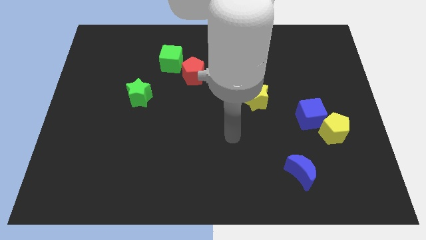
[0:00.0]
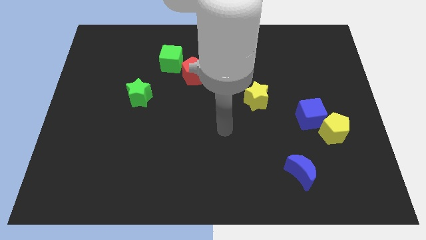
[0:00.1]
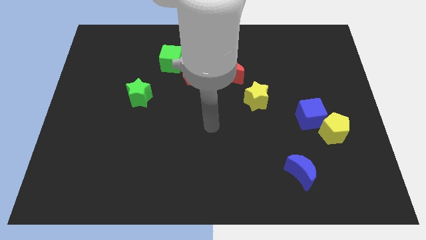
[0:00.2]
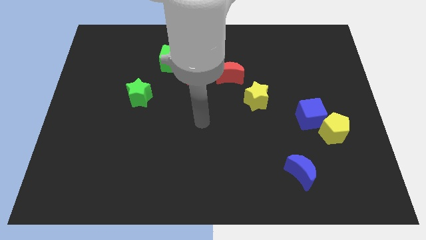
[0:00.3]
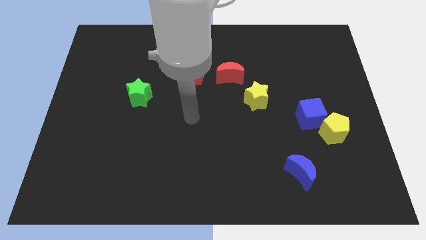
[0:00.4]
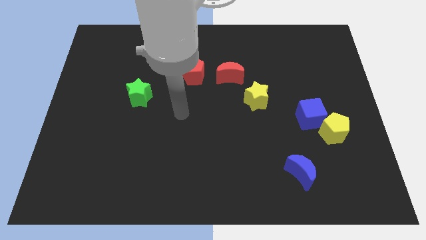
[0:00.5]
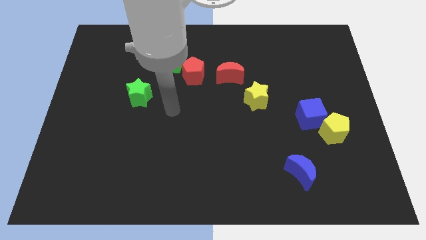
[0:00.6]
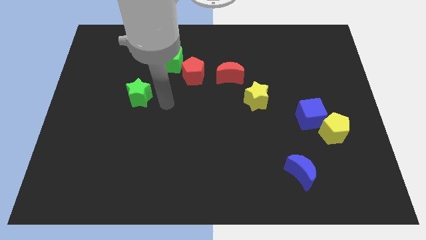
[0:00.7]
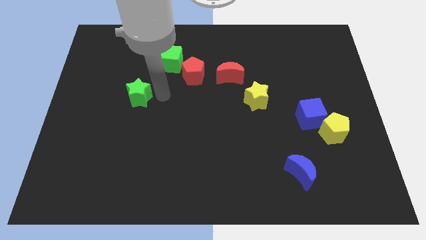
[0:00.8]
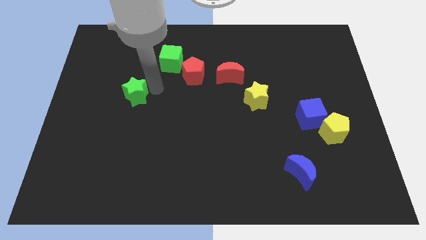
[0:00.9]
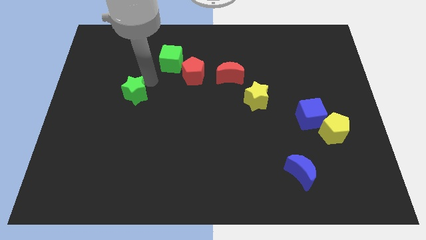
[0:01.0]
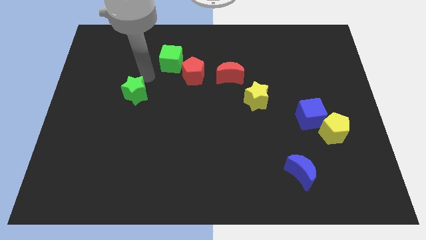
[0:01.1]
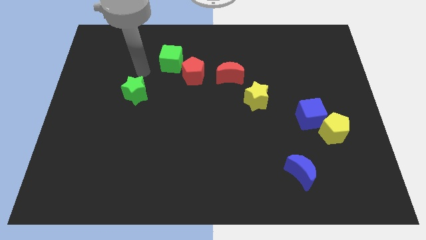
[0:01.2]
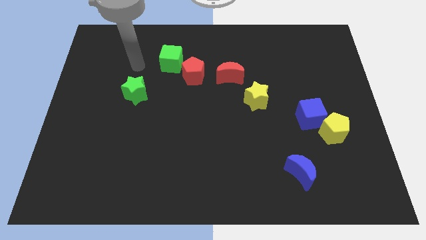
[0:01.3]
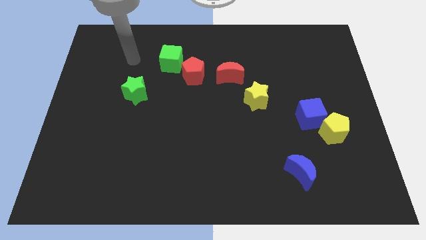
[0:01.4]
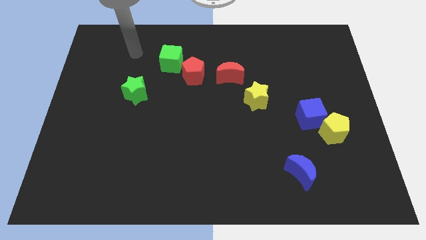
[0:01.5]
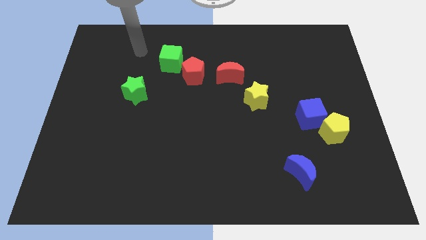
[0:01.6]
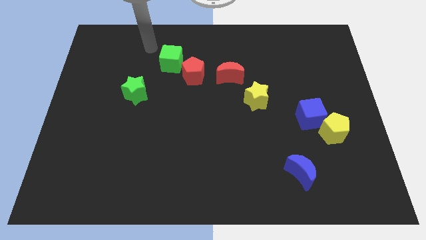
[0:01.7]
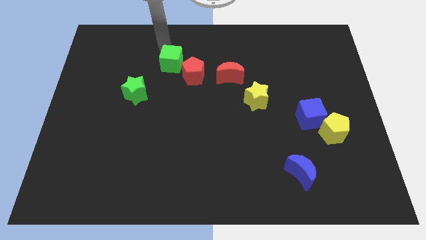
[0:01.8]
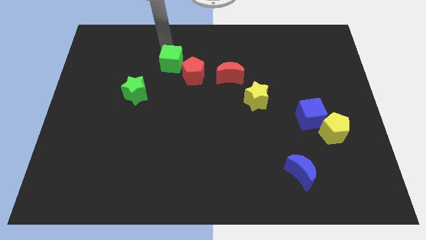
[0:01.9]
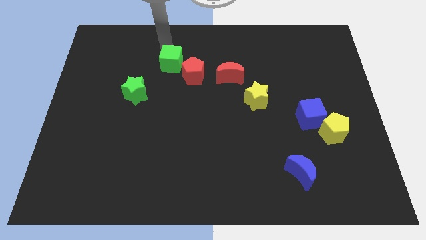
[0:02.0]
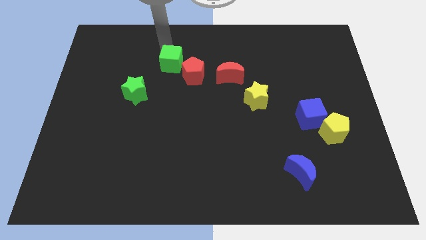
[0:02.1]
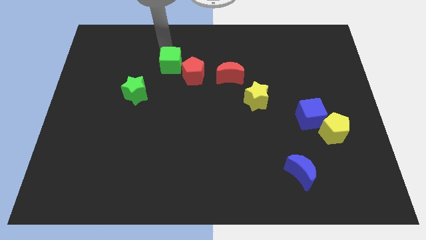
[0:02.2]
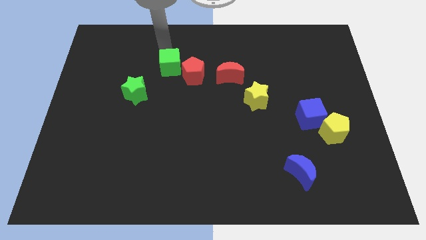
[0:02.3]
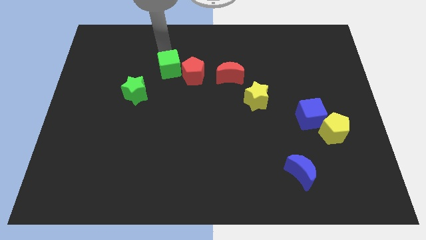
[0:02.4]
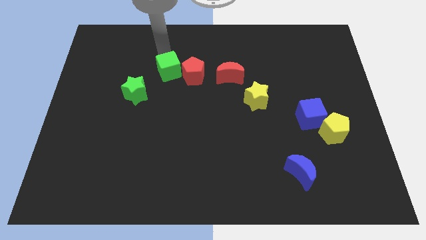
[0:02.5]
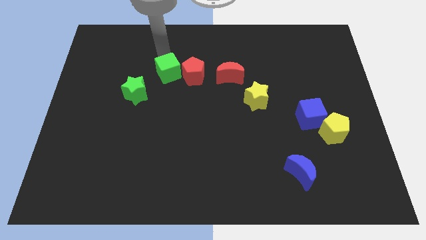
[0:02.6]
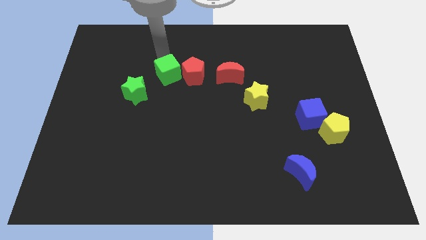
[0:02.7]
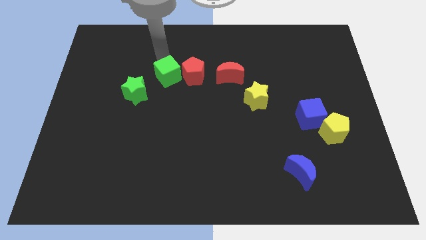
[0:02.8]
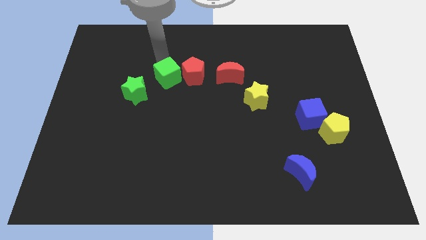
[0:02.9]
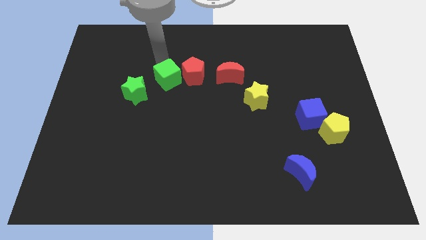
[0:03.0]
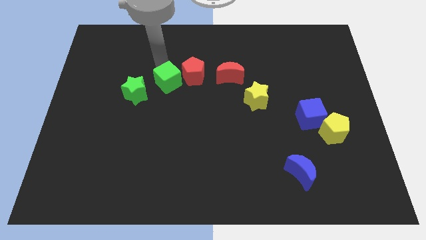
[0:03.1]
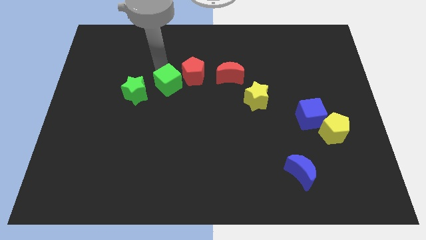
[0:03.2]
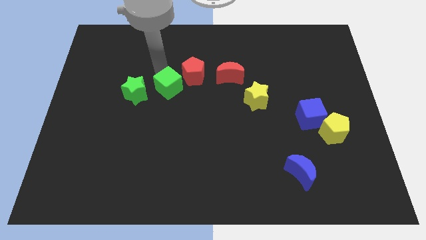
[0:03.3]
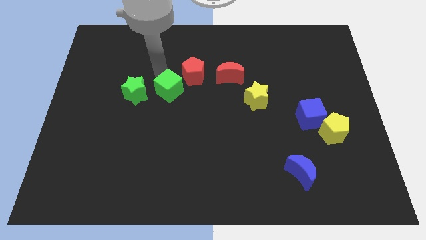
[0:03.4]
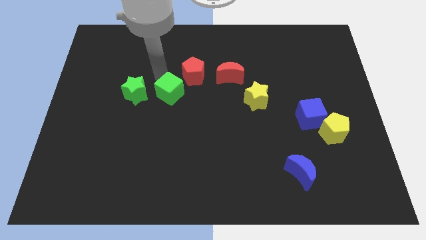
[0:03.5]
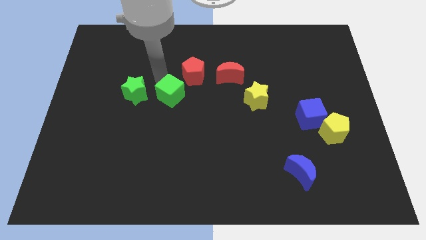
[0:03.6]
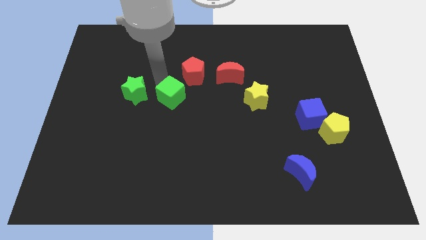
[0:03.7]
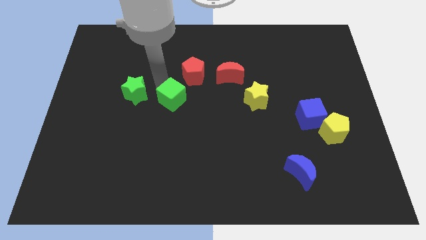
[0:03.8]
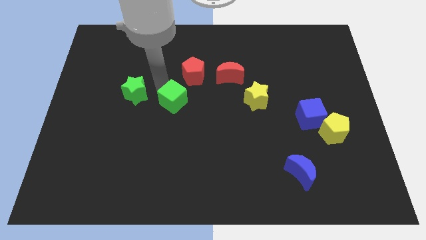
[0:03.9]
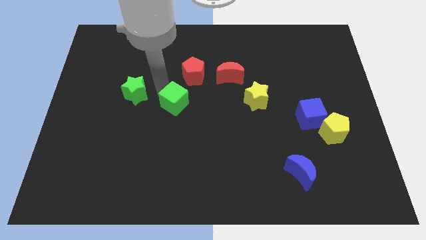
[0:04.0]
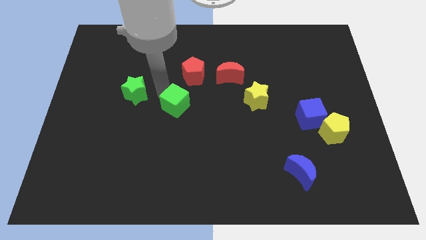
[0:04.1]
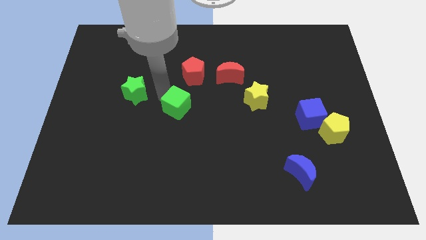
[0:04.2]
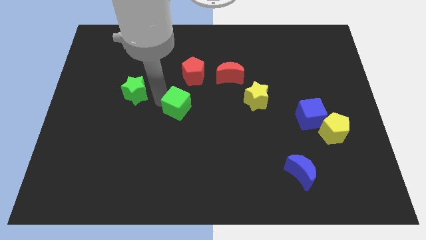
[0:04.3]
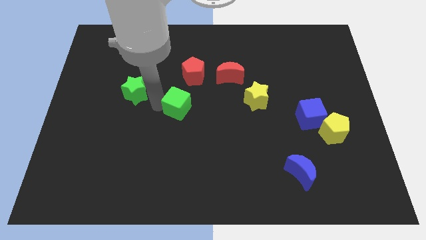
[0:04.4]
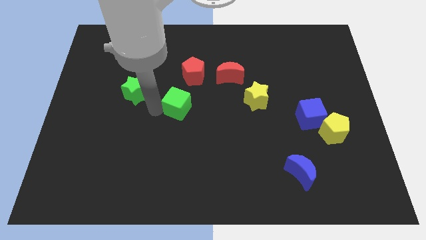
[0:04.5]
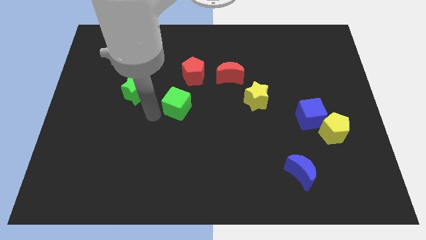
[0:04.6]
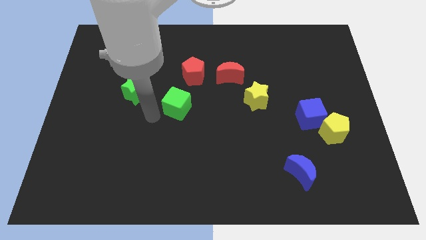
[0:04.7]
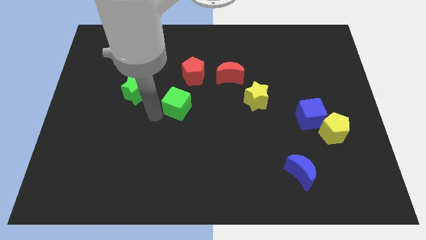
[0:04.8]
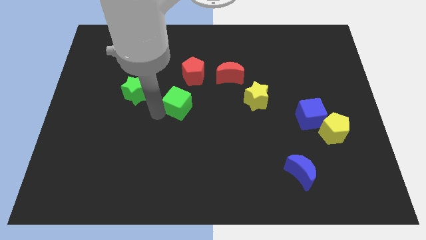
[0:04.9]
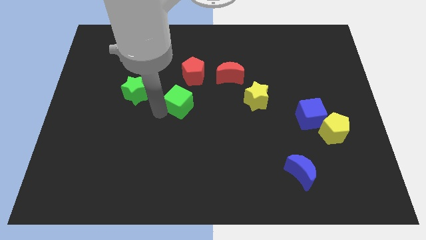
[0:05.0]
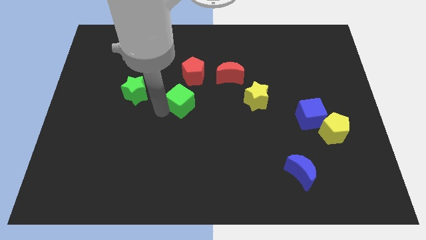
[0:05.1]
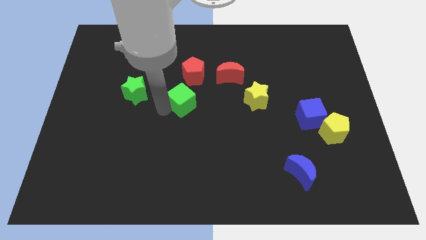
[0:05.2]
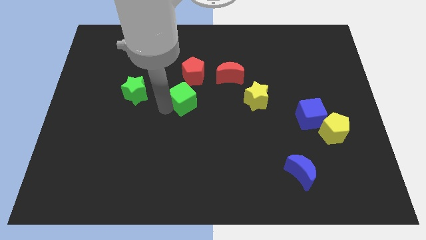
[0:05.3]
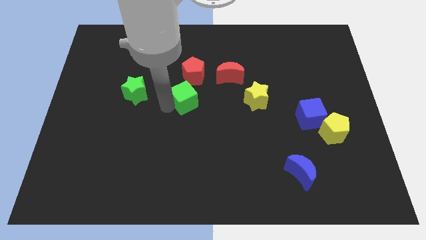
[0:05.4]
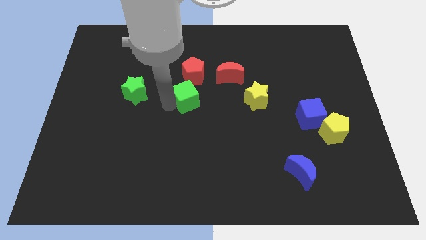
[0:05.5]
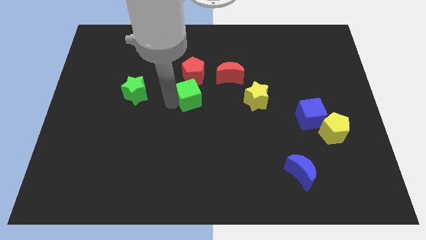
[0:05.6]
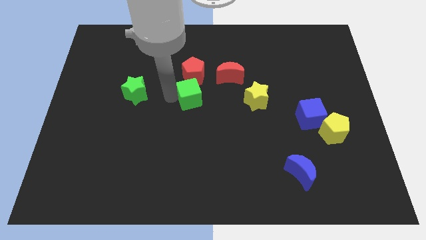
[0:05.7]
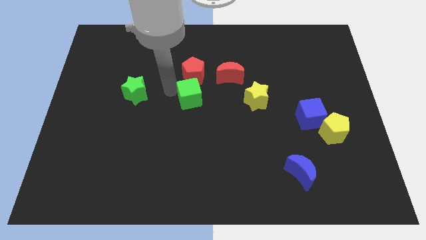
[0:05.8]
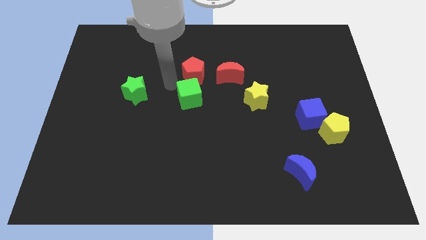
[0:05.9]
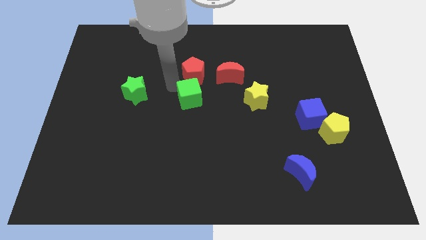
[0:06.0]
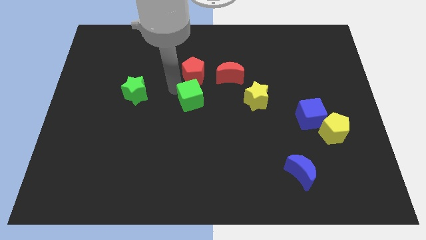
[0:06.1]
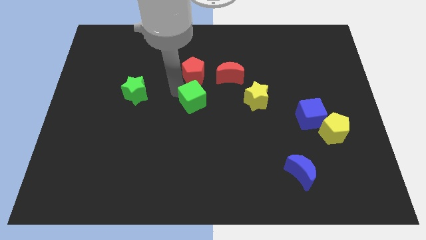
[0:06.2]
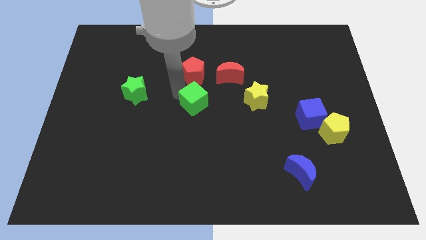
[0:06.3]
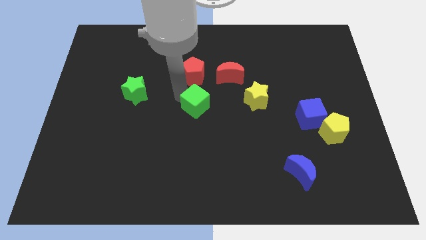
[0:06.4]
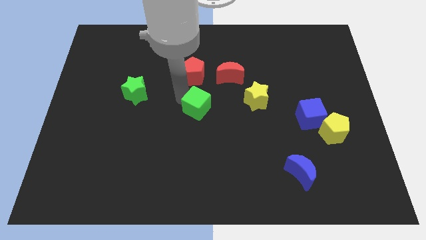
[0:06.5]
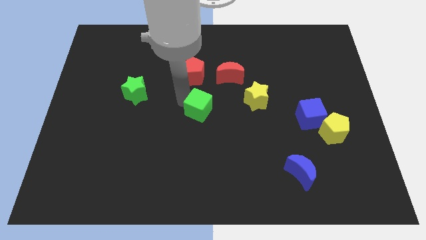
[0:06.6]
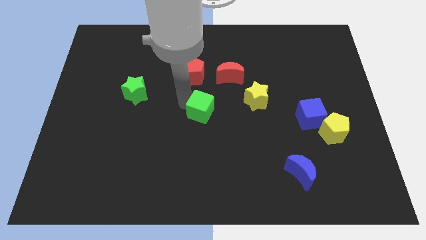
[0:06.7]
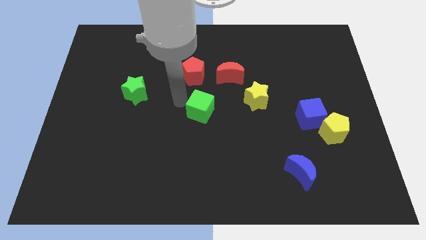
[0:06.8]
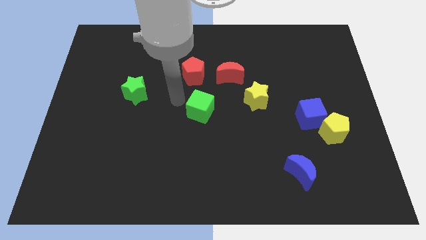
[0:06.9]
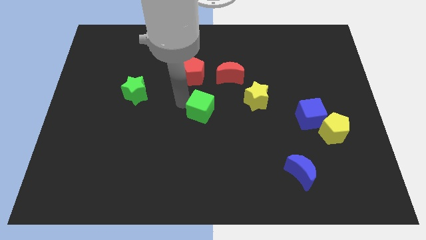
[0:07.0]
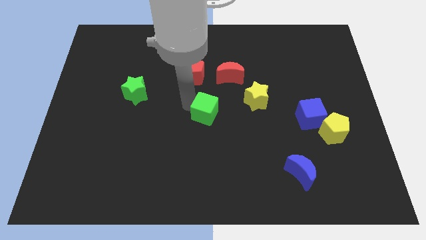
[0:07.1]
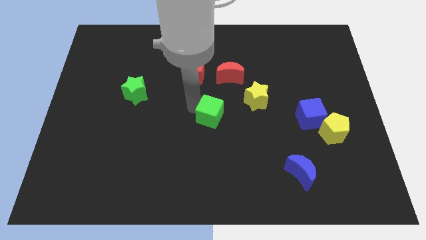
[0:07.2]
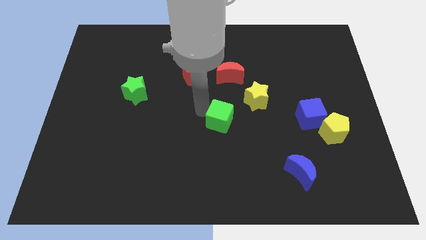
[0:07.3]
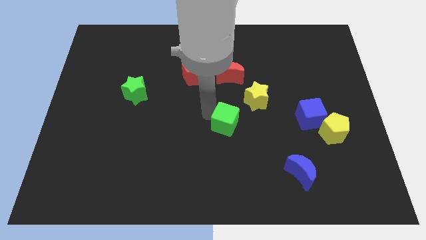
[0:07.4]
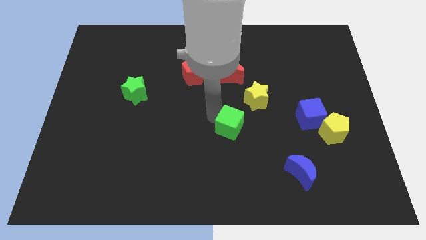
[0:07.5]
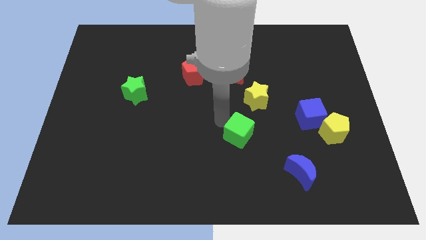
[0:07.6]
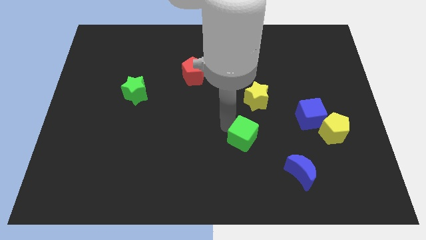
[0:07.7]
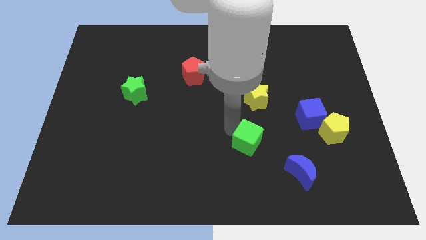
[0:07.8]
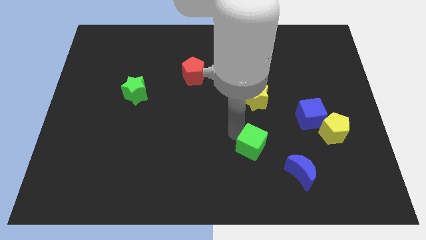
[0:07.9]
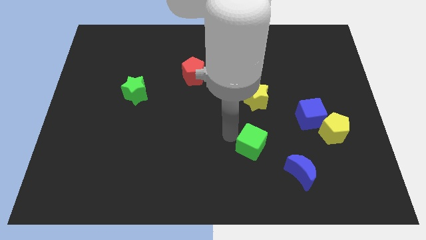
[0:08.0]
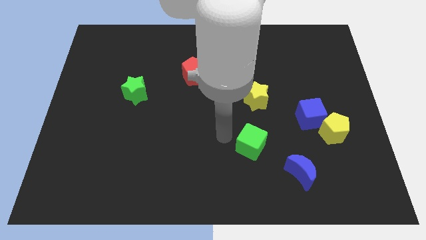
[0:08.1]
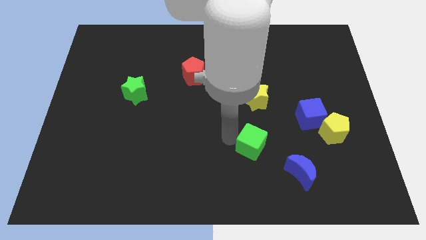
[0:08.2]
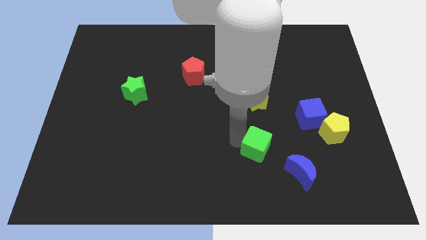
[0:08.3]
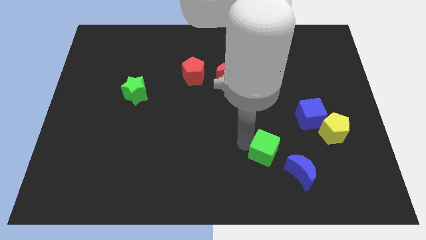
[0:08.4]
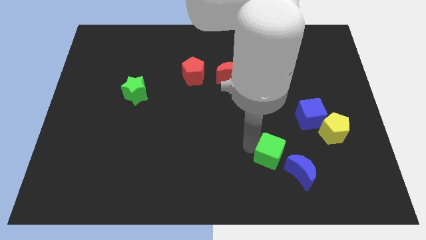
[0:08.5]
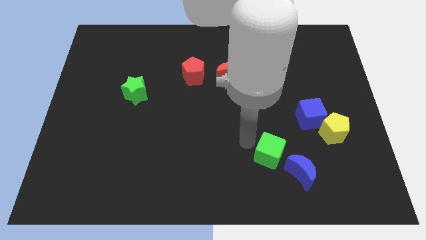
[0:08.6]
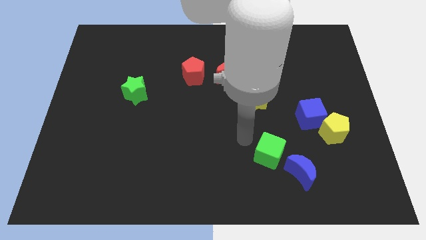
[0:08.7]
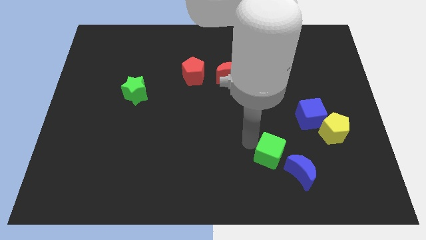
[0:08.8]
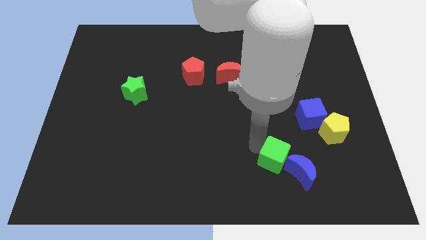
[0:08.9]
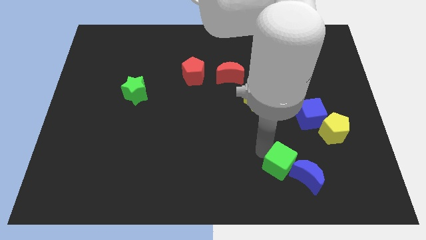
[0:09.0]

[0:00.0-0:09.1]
push the green cube close to the blue moon
